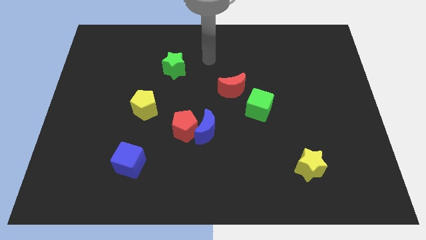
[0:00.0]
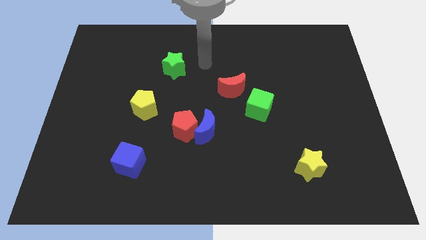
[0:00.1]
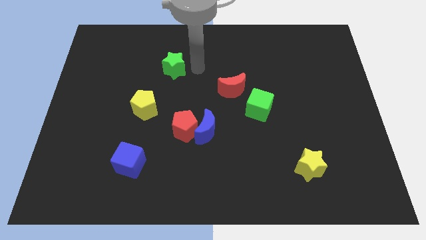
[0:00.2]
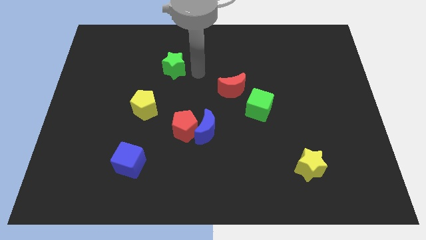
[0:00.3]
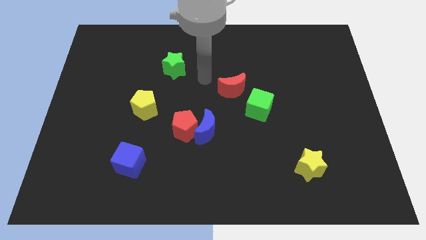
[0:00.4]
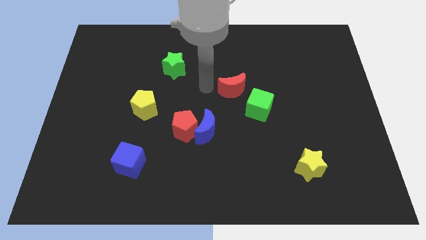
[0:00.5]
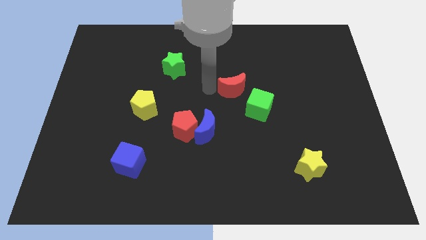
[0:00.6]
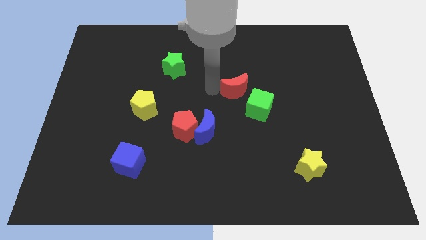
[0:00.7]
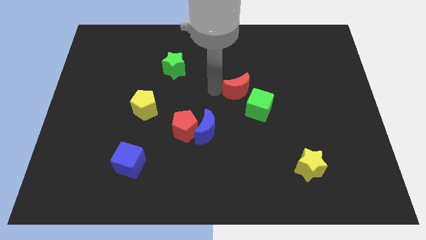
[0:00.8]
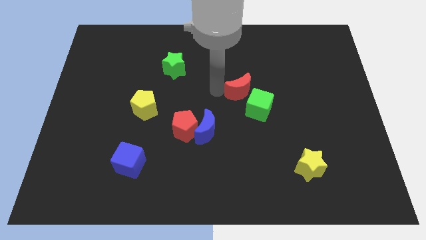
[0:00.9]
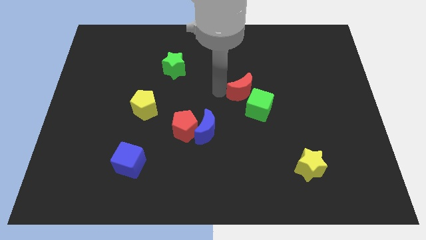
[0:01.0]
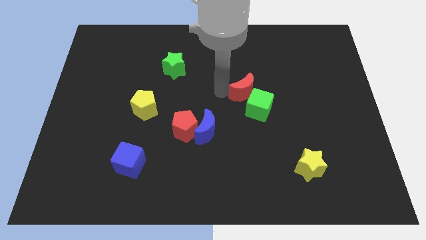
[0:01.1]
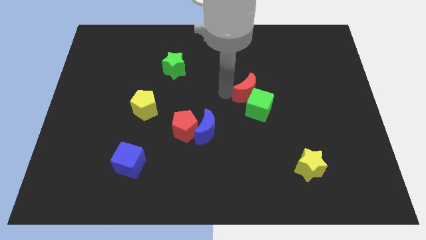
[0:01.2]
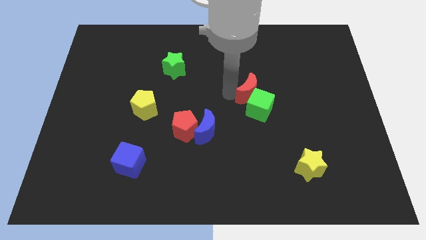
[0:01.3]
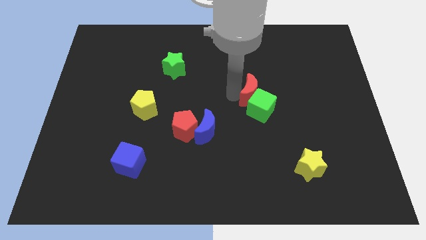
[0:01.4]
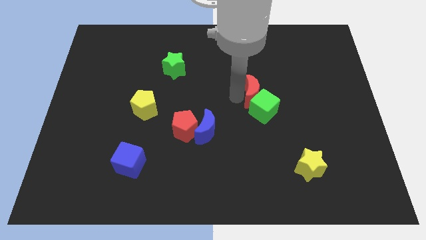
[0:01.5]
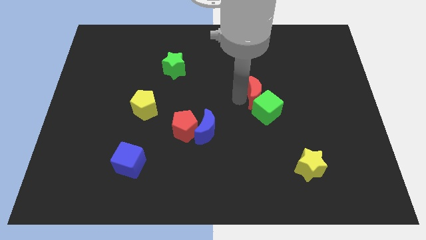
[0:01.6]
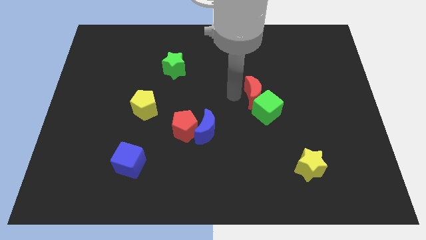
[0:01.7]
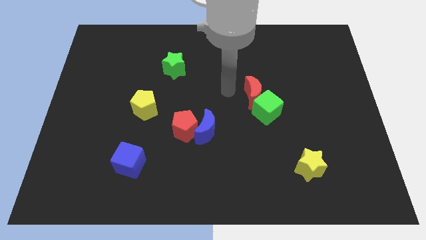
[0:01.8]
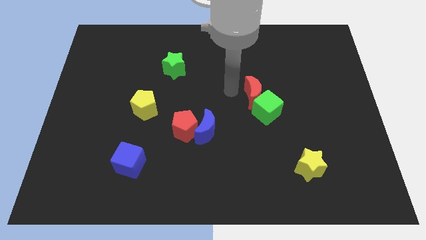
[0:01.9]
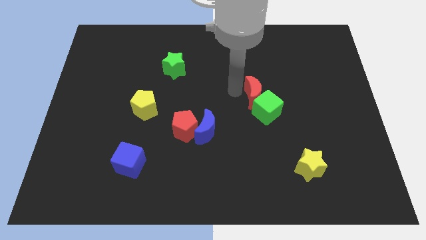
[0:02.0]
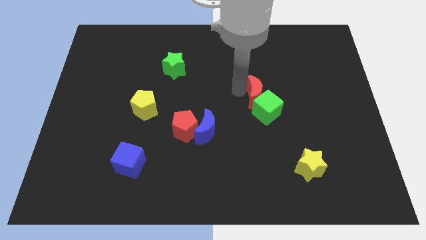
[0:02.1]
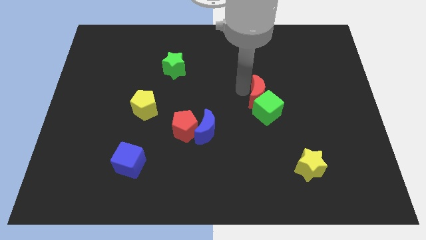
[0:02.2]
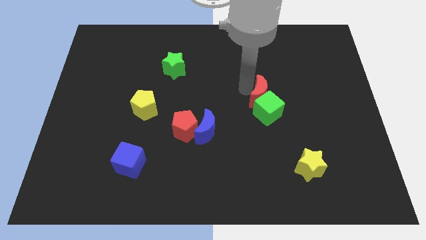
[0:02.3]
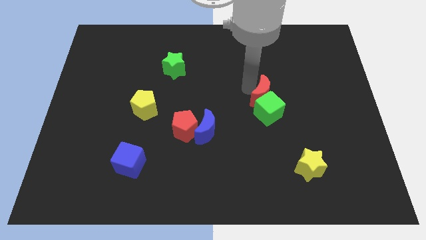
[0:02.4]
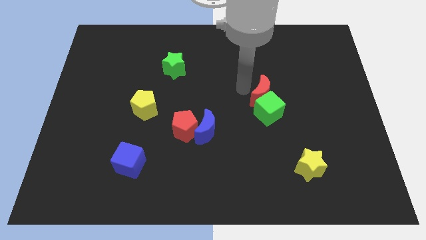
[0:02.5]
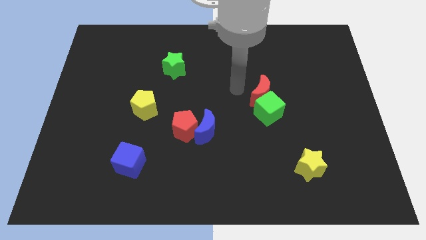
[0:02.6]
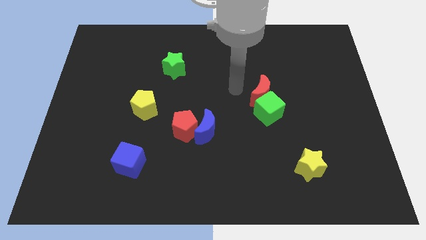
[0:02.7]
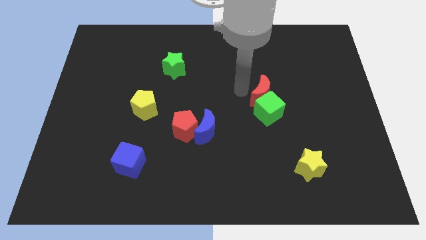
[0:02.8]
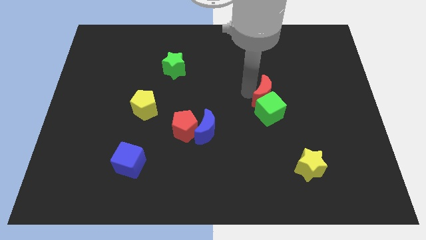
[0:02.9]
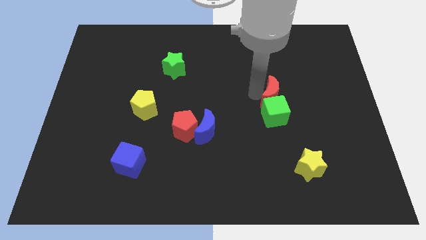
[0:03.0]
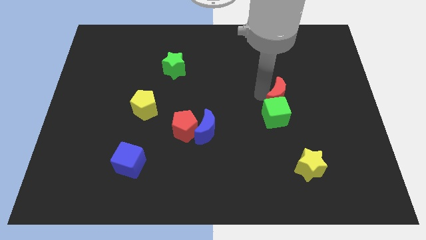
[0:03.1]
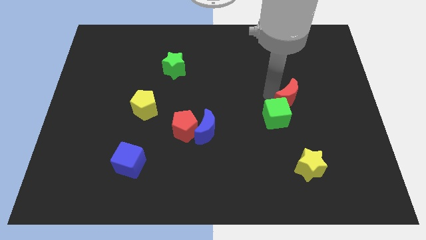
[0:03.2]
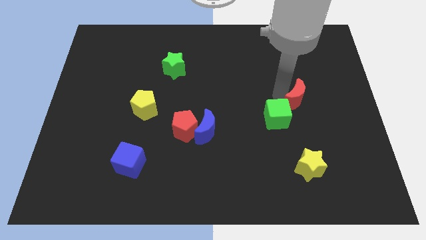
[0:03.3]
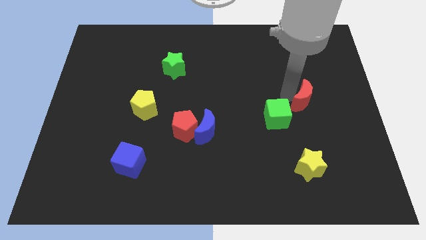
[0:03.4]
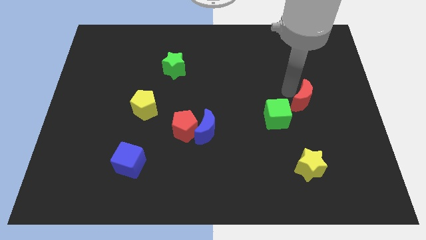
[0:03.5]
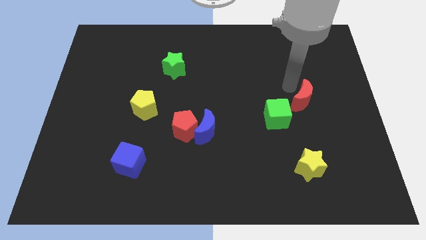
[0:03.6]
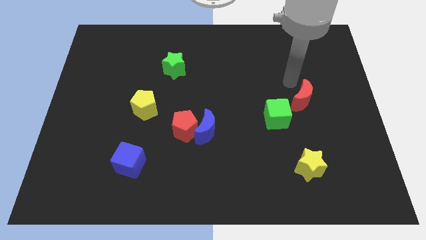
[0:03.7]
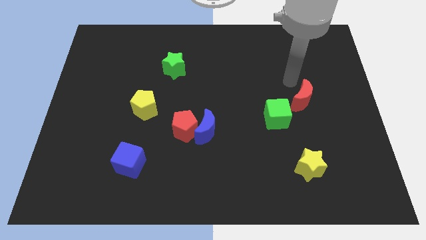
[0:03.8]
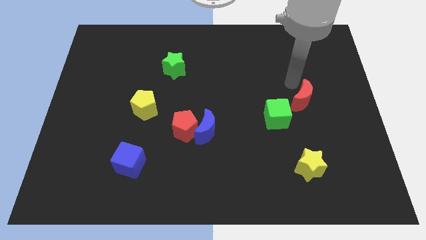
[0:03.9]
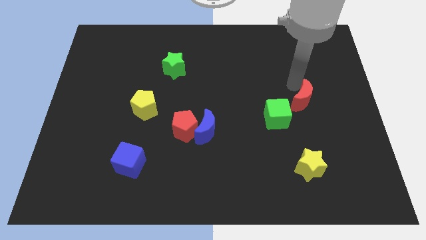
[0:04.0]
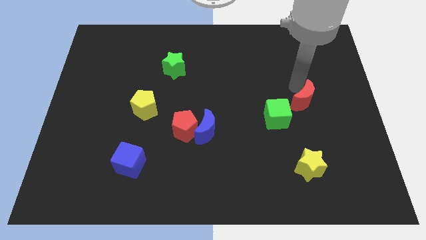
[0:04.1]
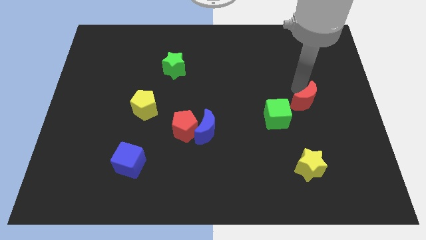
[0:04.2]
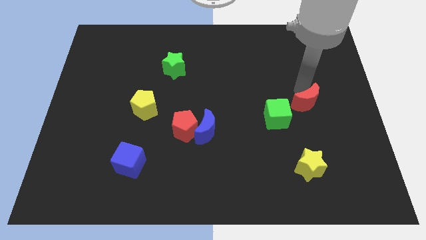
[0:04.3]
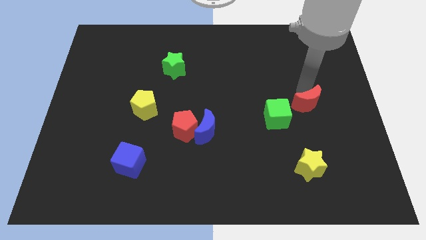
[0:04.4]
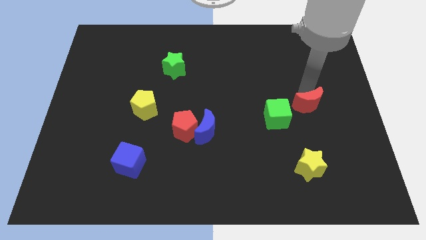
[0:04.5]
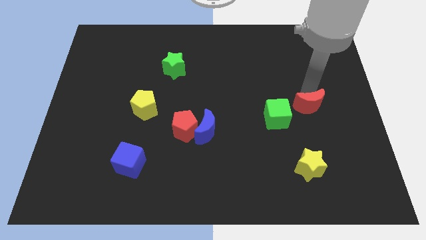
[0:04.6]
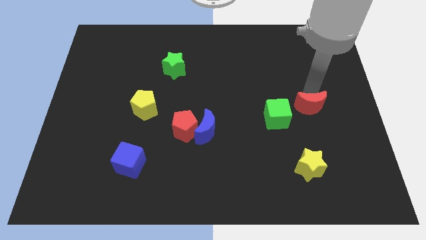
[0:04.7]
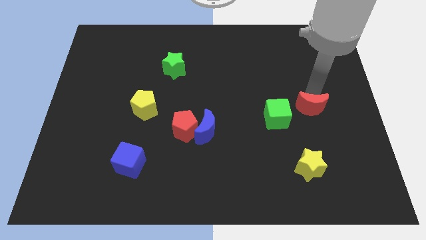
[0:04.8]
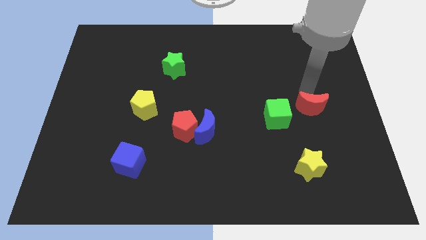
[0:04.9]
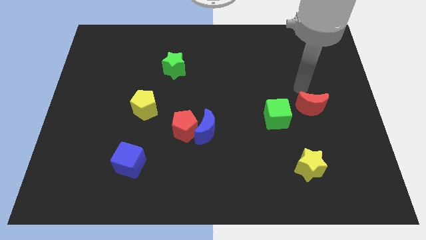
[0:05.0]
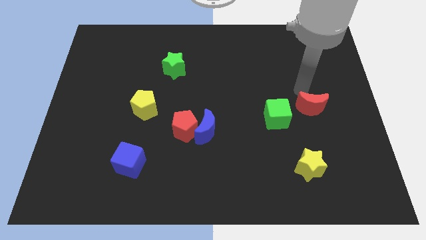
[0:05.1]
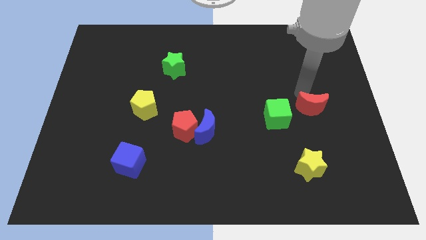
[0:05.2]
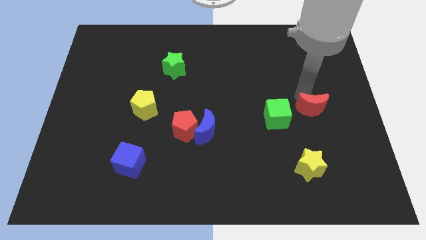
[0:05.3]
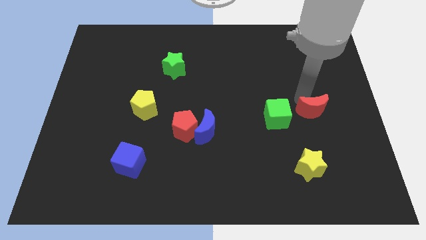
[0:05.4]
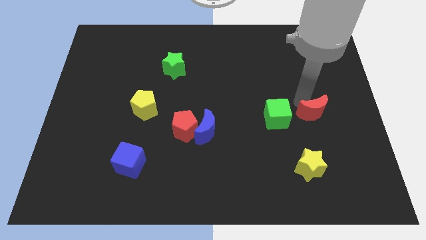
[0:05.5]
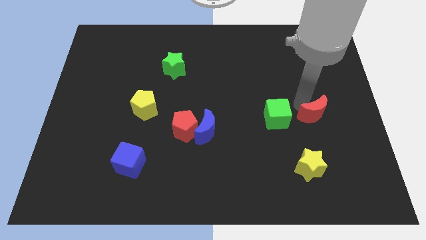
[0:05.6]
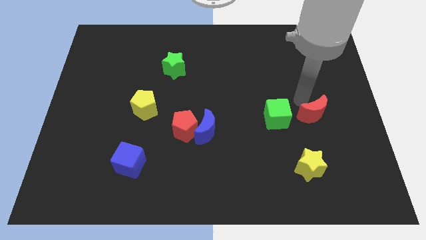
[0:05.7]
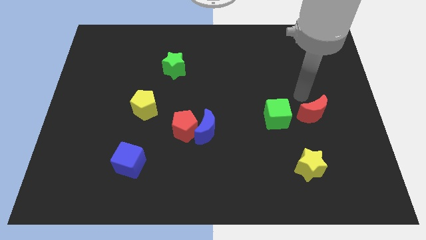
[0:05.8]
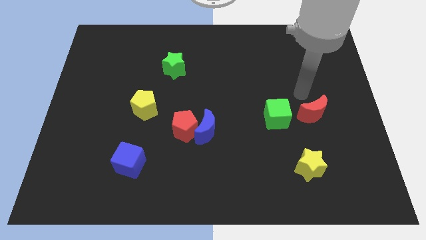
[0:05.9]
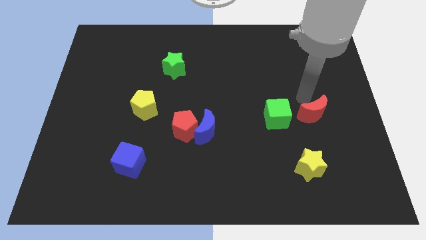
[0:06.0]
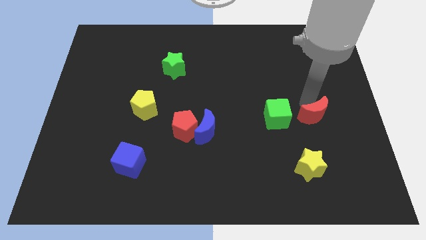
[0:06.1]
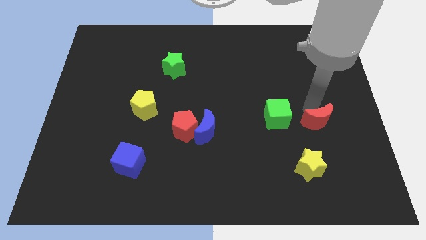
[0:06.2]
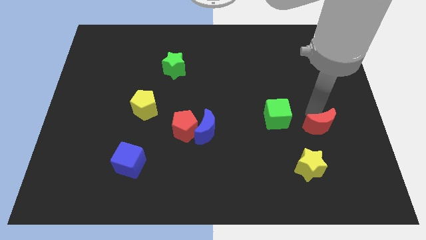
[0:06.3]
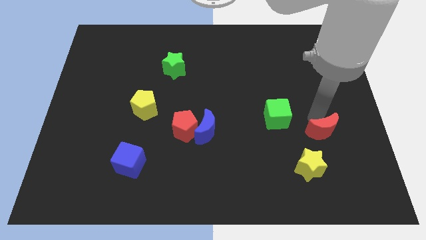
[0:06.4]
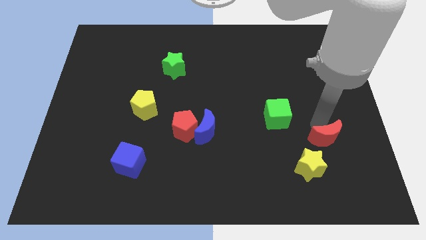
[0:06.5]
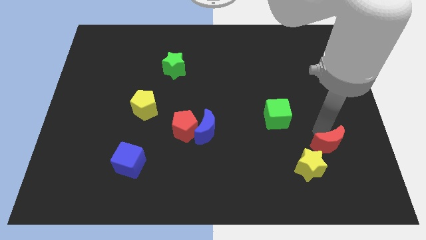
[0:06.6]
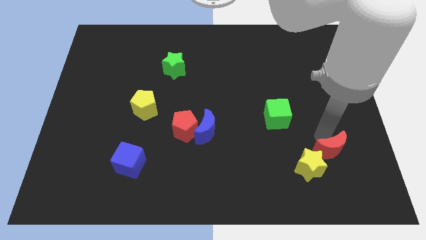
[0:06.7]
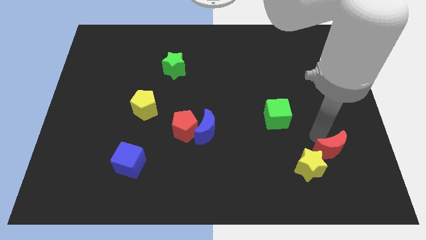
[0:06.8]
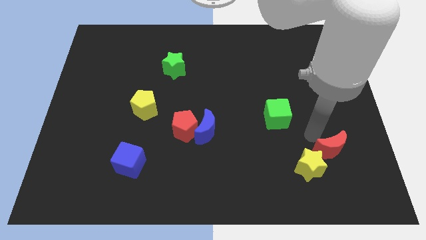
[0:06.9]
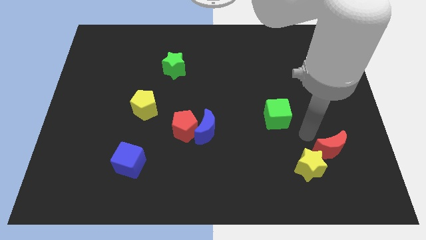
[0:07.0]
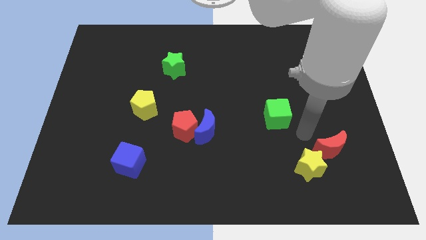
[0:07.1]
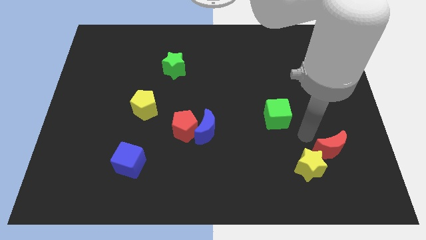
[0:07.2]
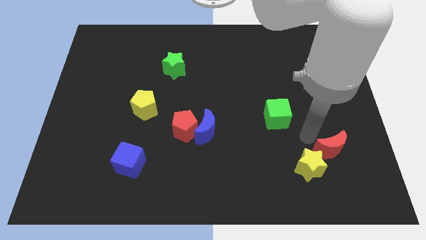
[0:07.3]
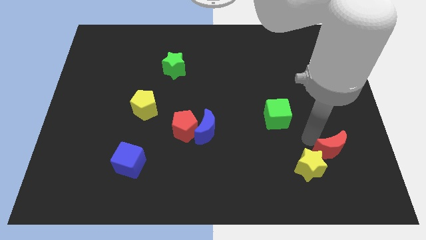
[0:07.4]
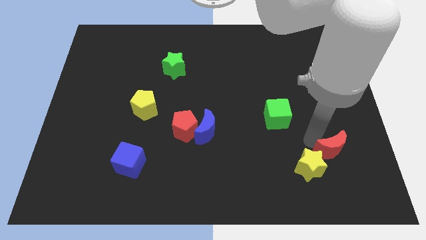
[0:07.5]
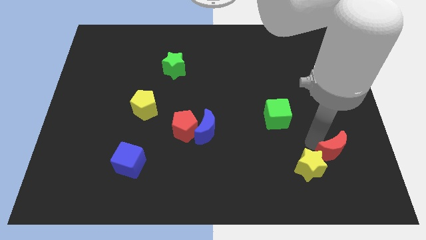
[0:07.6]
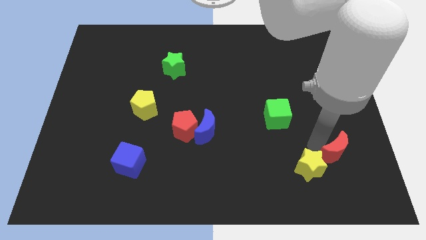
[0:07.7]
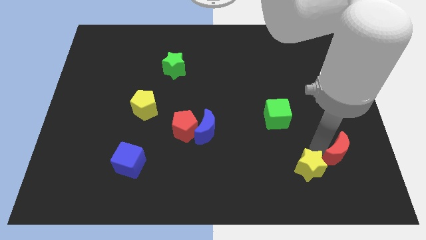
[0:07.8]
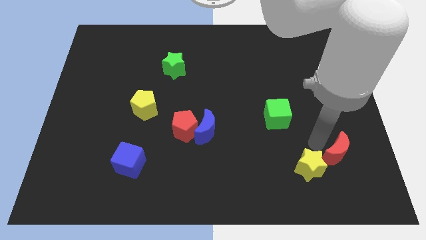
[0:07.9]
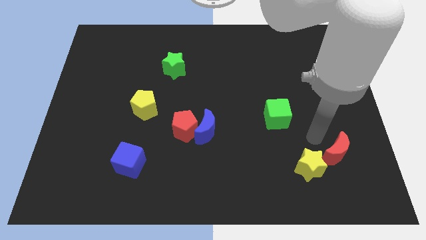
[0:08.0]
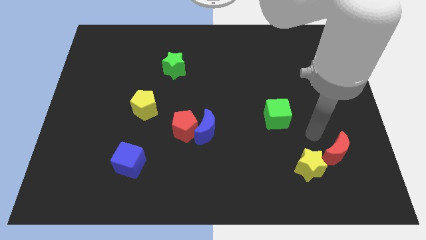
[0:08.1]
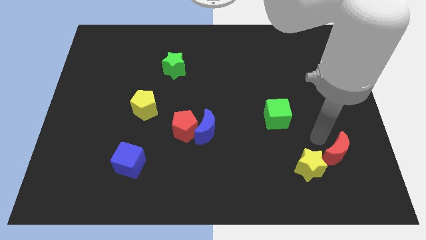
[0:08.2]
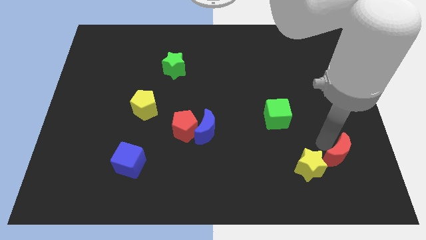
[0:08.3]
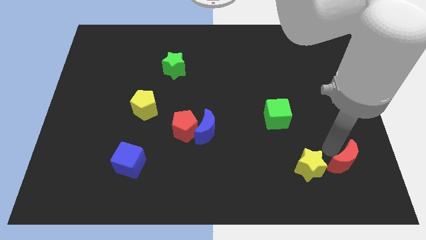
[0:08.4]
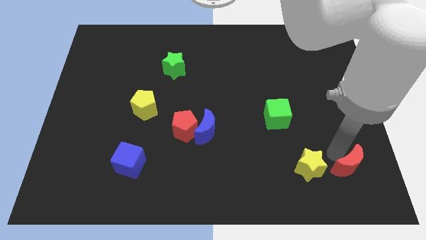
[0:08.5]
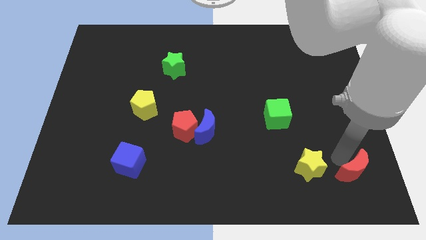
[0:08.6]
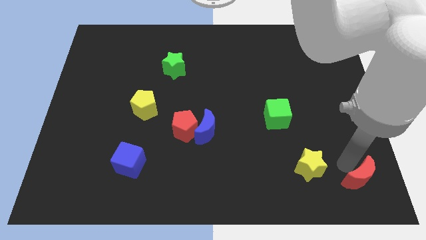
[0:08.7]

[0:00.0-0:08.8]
slide the red moon to the lower right corner
